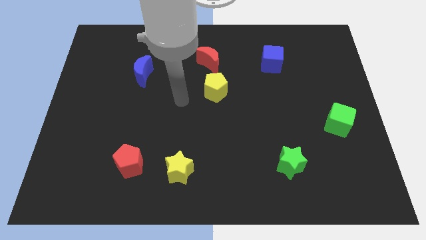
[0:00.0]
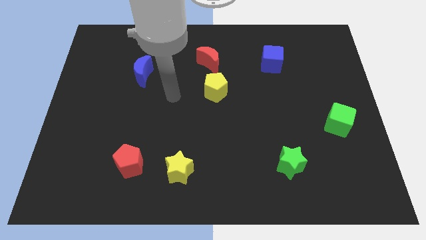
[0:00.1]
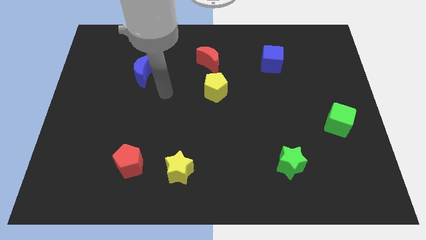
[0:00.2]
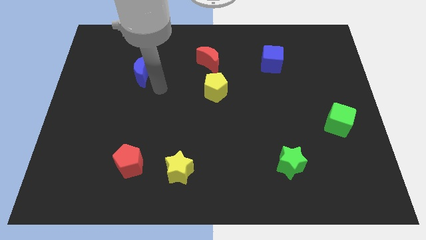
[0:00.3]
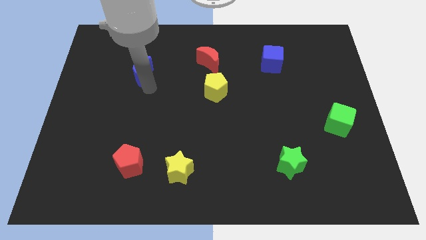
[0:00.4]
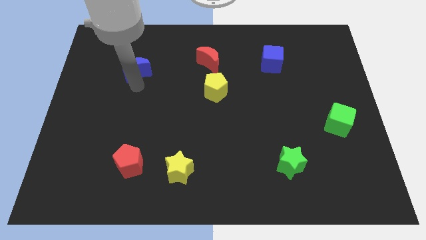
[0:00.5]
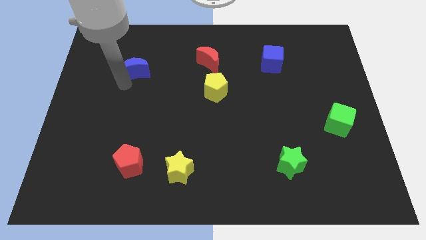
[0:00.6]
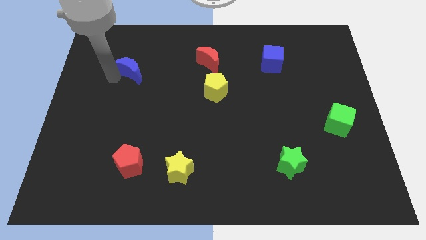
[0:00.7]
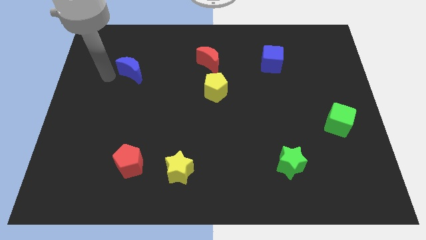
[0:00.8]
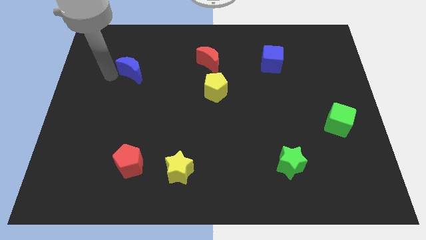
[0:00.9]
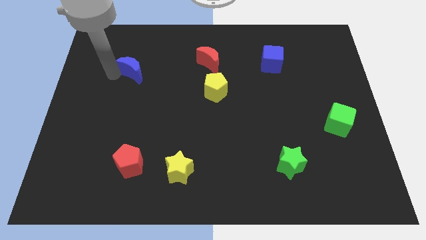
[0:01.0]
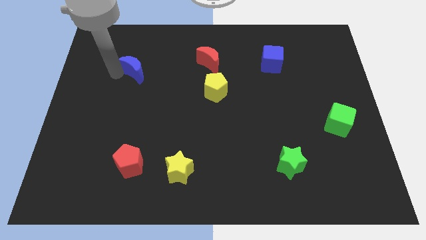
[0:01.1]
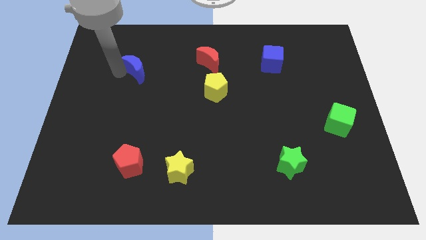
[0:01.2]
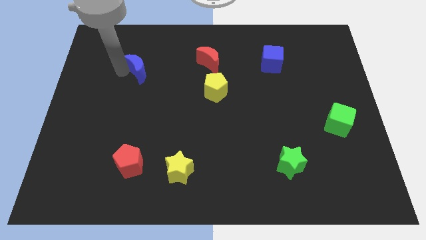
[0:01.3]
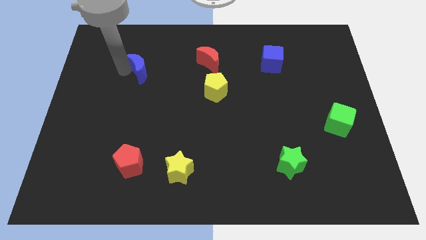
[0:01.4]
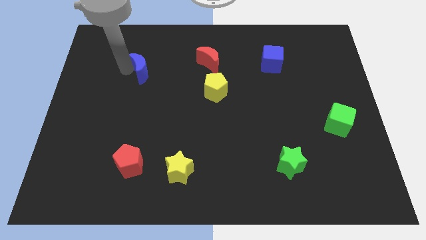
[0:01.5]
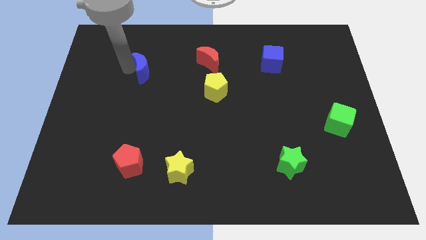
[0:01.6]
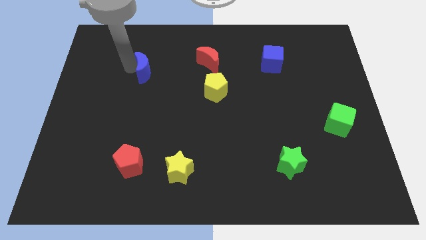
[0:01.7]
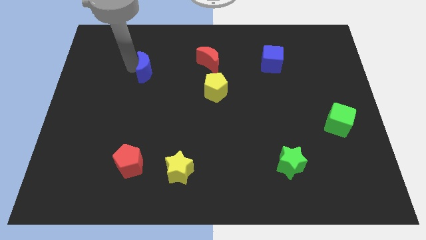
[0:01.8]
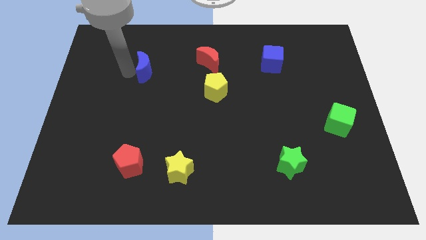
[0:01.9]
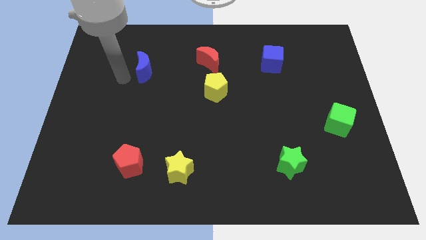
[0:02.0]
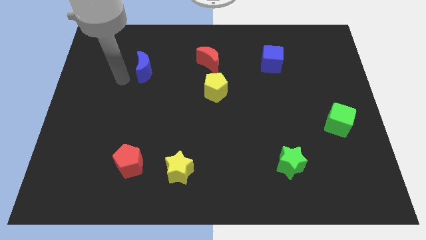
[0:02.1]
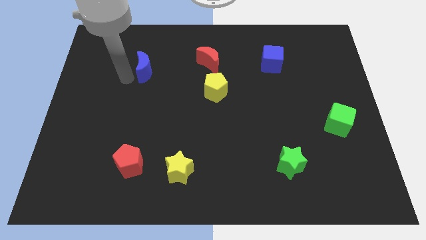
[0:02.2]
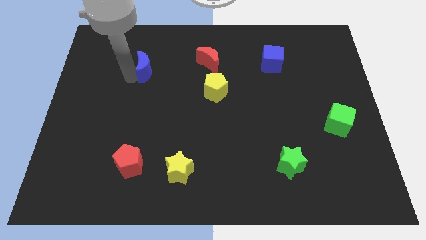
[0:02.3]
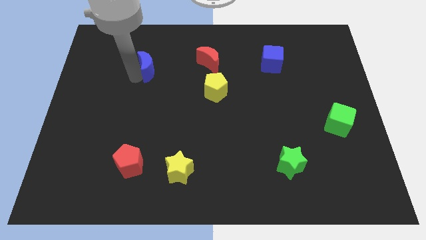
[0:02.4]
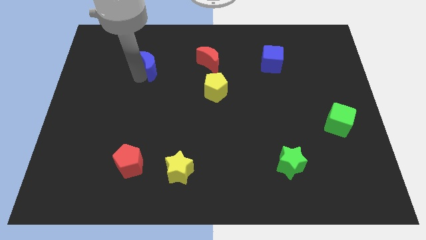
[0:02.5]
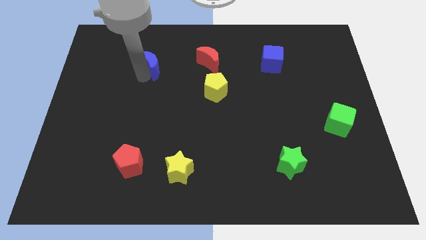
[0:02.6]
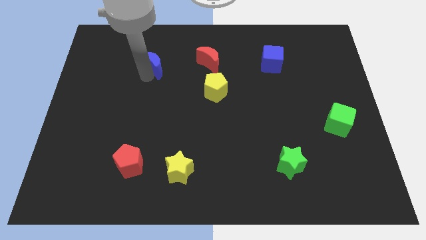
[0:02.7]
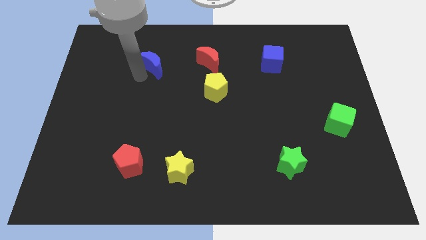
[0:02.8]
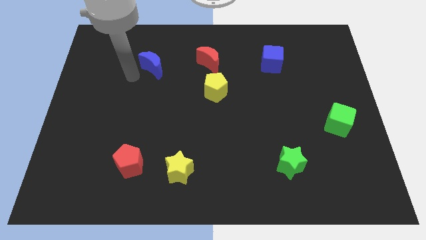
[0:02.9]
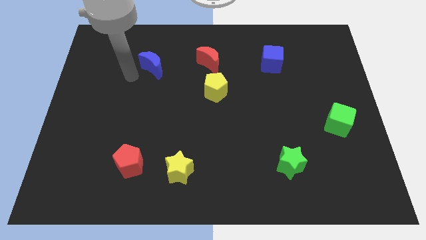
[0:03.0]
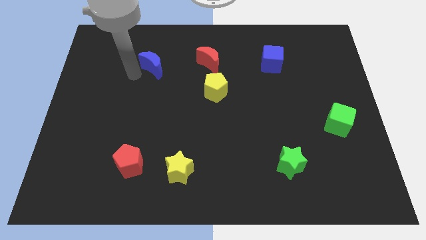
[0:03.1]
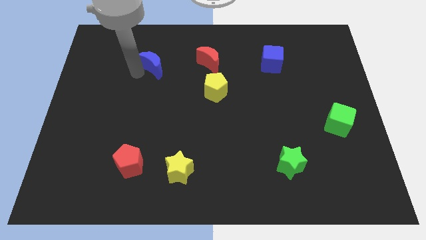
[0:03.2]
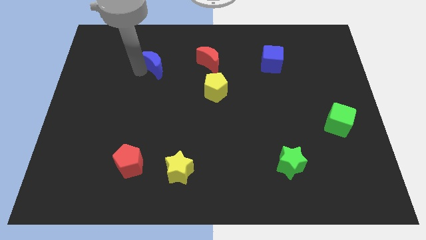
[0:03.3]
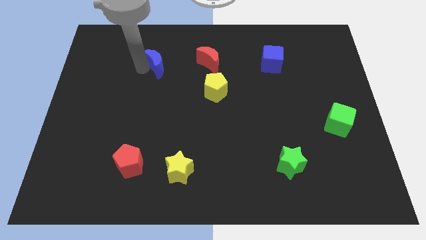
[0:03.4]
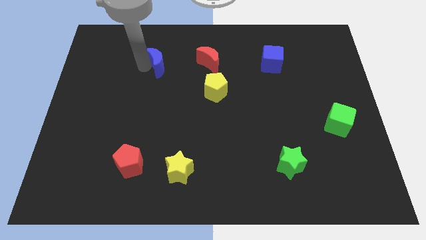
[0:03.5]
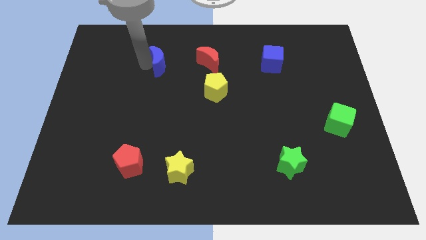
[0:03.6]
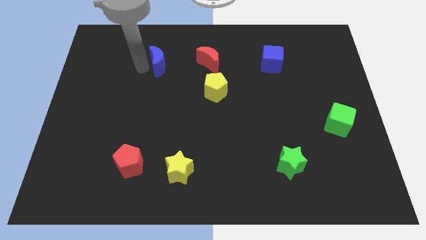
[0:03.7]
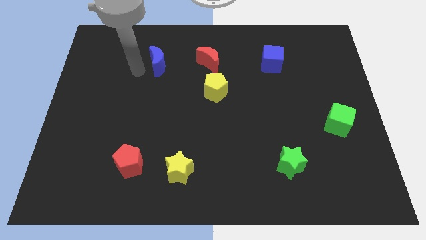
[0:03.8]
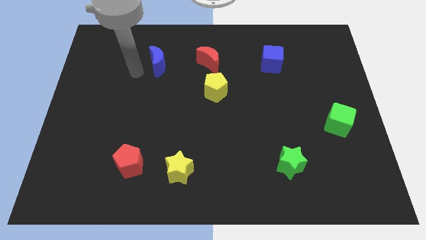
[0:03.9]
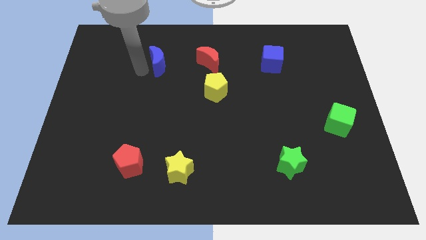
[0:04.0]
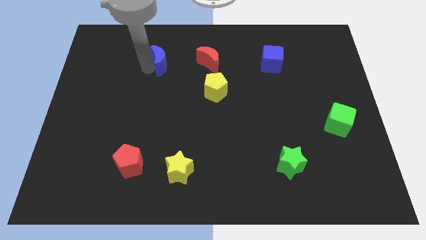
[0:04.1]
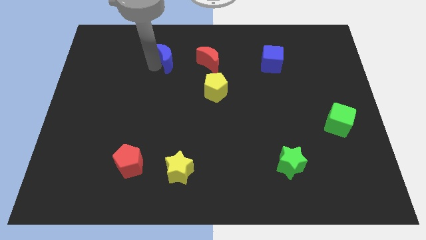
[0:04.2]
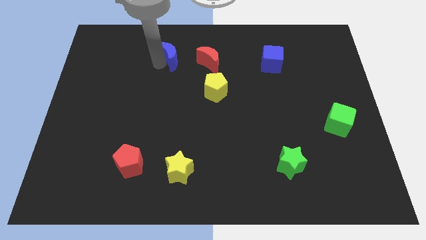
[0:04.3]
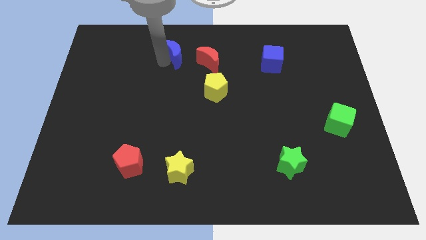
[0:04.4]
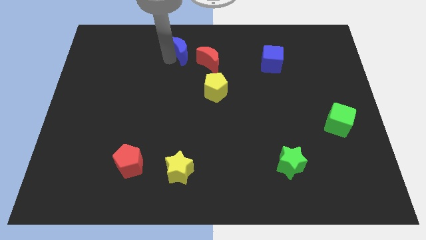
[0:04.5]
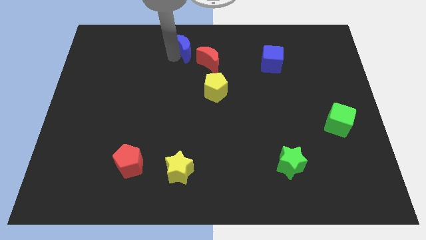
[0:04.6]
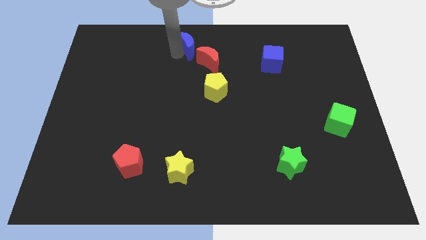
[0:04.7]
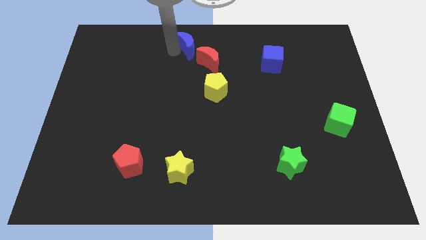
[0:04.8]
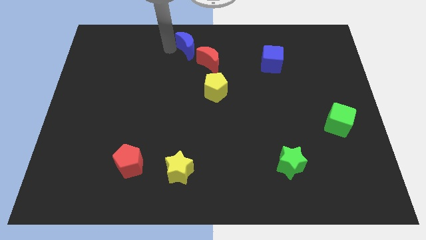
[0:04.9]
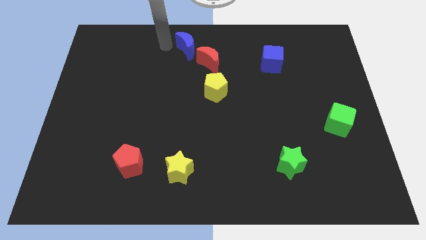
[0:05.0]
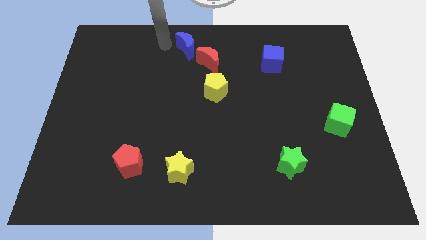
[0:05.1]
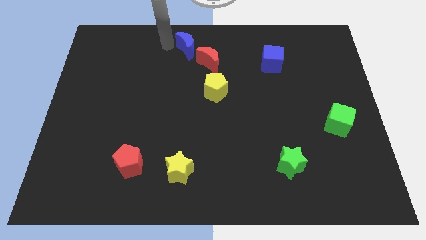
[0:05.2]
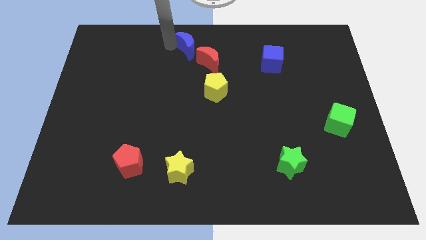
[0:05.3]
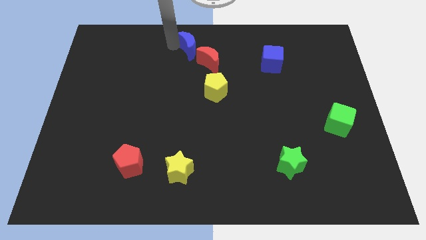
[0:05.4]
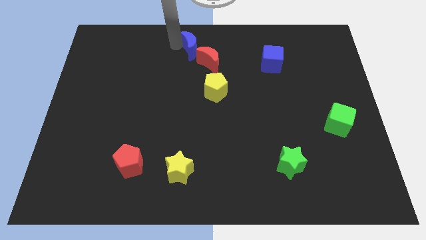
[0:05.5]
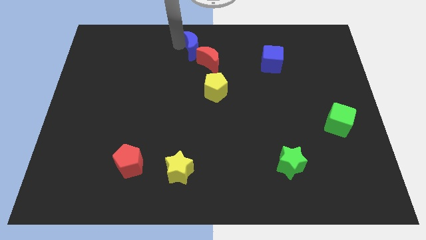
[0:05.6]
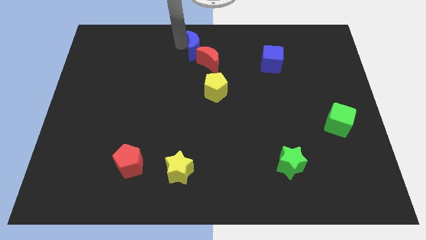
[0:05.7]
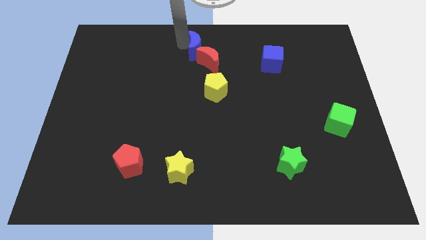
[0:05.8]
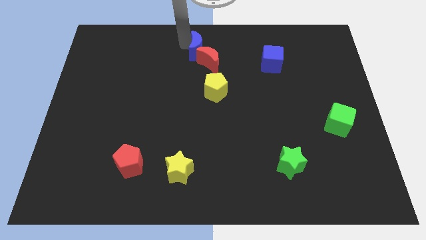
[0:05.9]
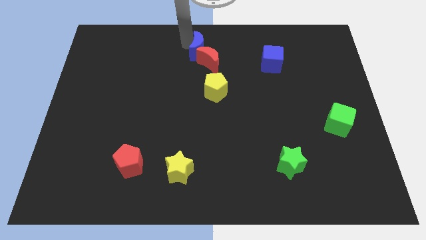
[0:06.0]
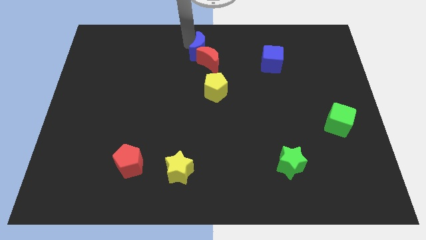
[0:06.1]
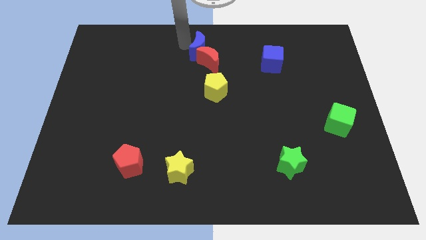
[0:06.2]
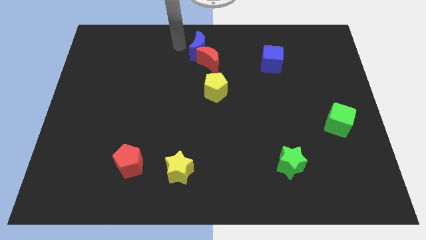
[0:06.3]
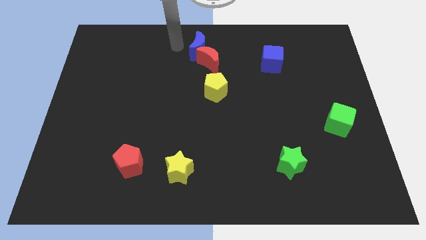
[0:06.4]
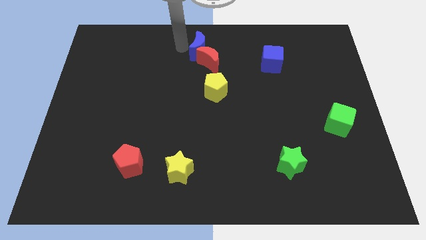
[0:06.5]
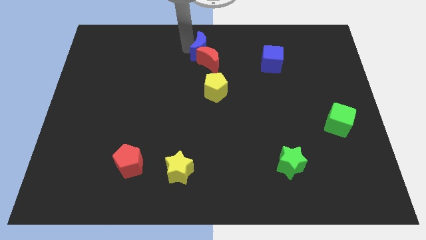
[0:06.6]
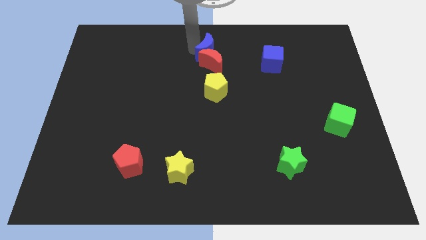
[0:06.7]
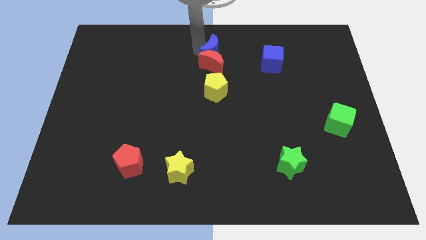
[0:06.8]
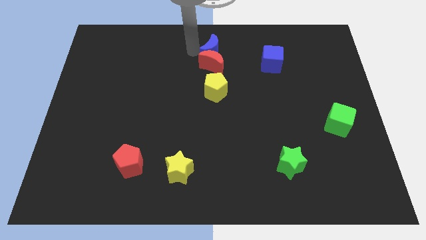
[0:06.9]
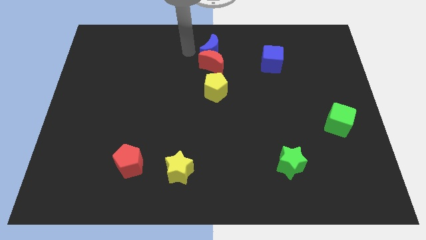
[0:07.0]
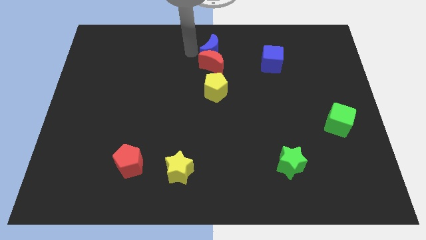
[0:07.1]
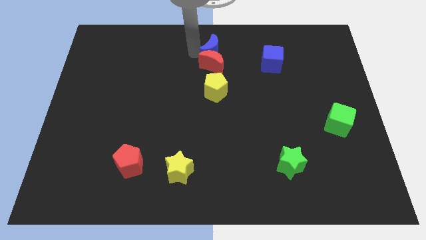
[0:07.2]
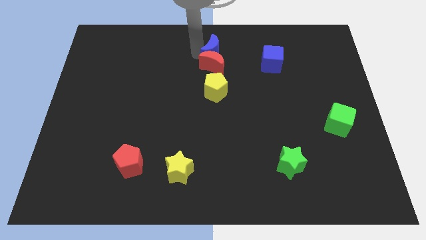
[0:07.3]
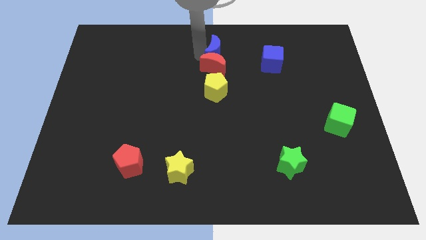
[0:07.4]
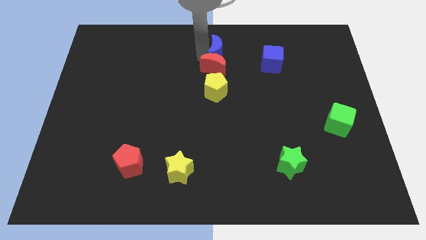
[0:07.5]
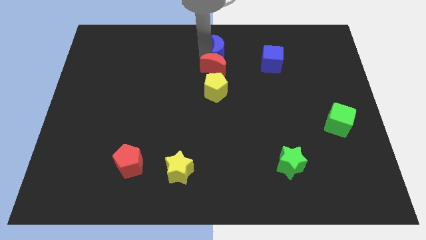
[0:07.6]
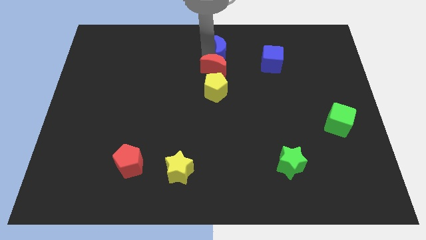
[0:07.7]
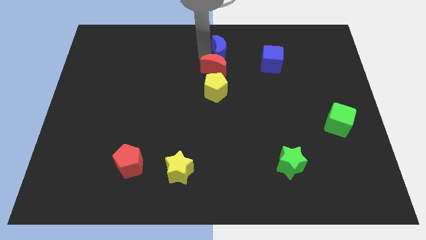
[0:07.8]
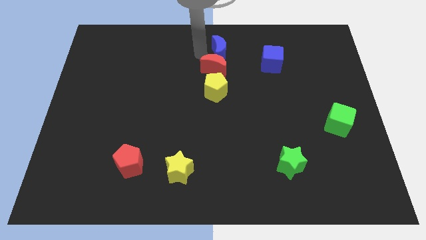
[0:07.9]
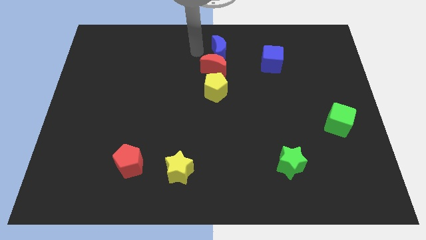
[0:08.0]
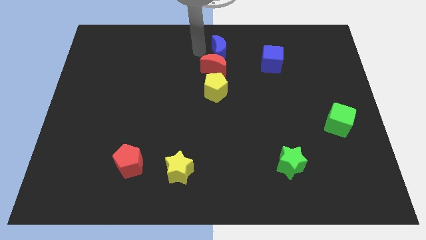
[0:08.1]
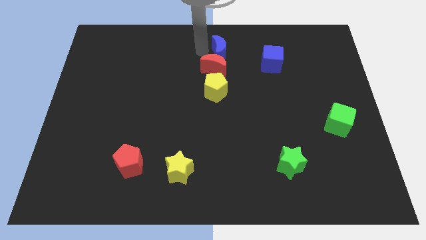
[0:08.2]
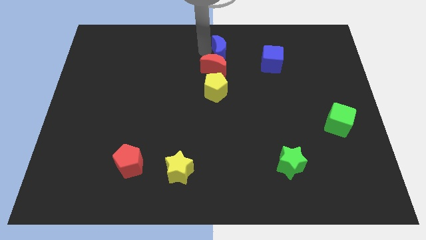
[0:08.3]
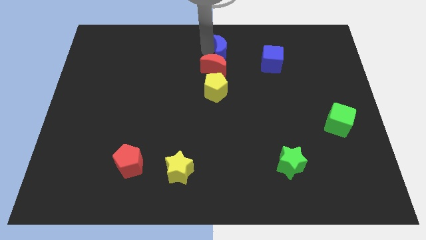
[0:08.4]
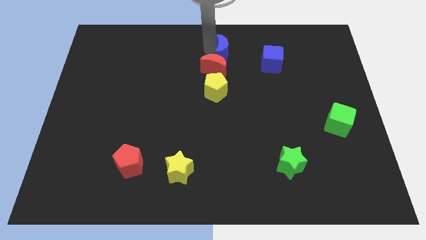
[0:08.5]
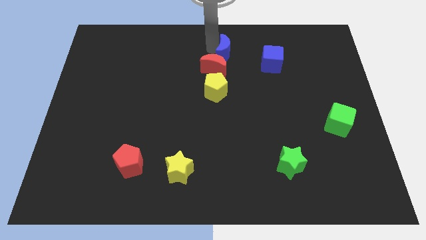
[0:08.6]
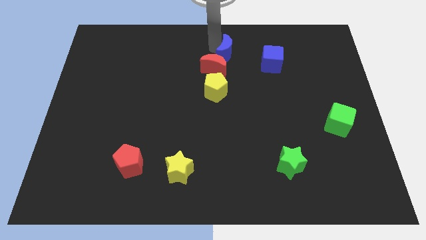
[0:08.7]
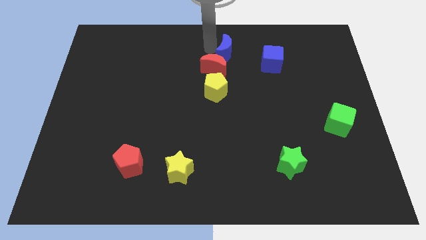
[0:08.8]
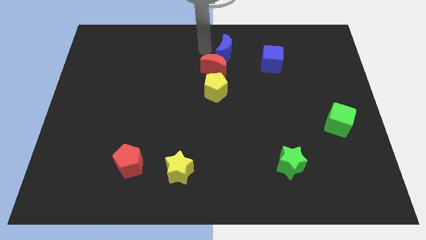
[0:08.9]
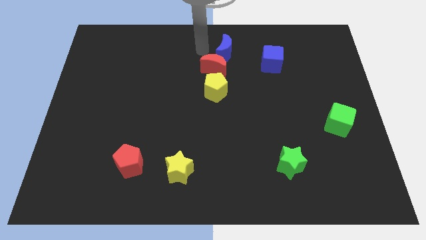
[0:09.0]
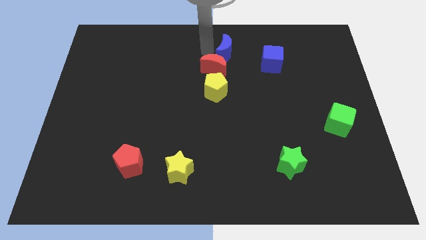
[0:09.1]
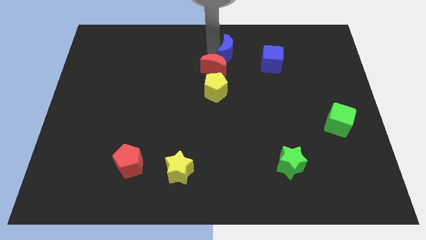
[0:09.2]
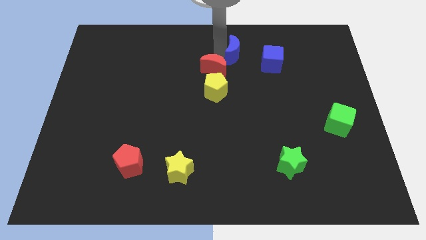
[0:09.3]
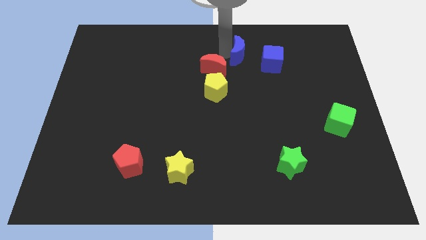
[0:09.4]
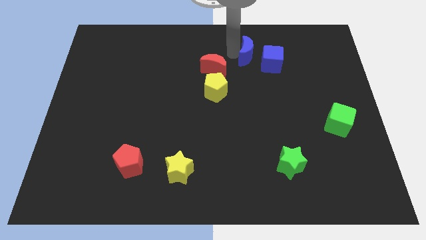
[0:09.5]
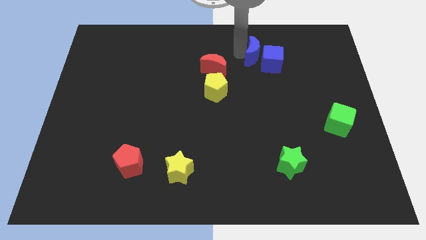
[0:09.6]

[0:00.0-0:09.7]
put the blue moon to the blue cube
